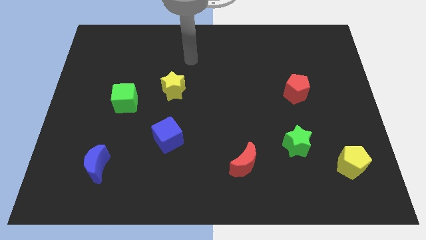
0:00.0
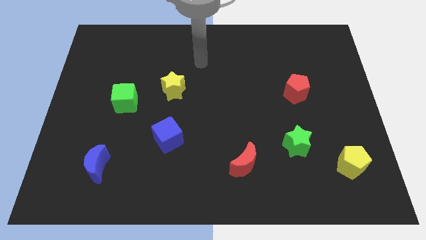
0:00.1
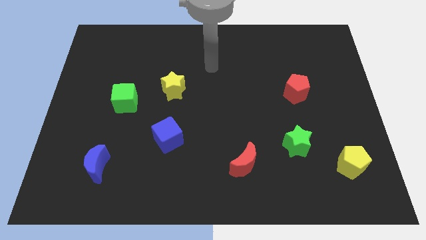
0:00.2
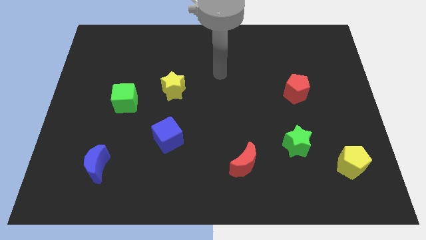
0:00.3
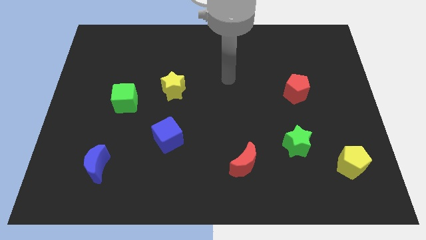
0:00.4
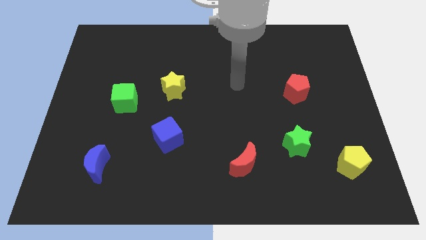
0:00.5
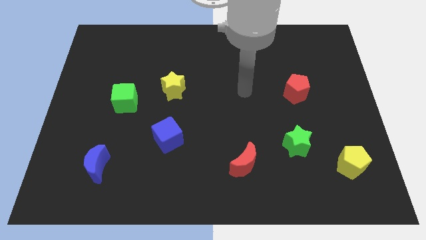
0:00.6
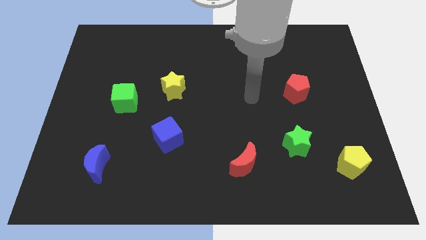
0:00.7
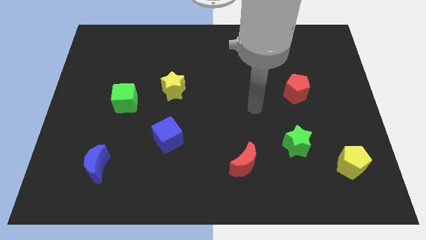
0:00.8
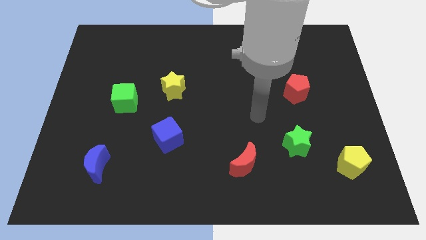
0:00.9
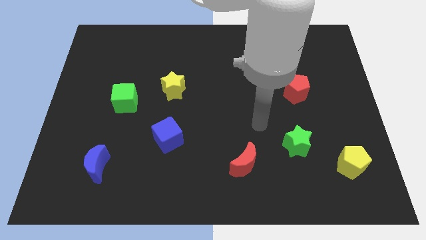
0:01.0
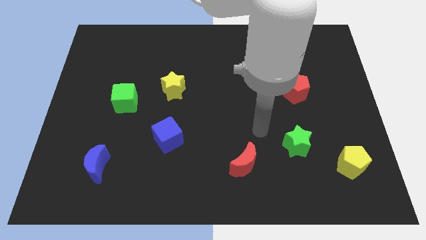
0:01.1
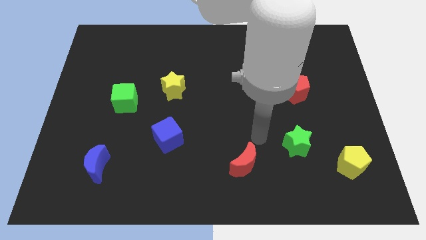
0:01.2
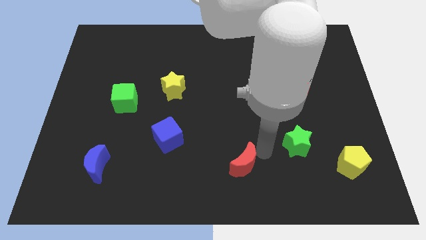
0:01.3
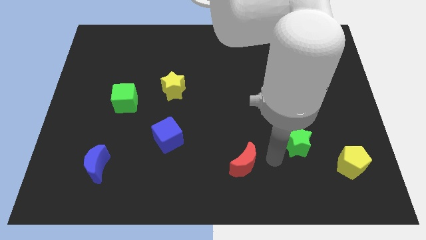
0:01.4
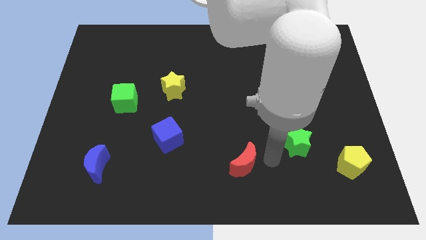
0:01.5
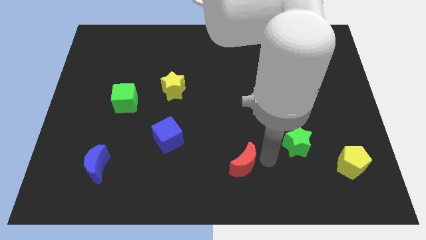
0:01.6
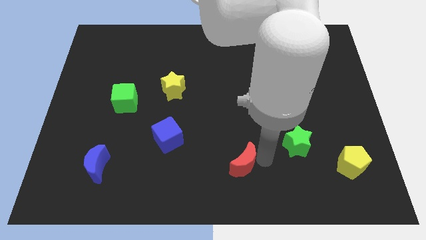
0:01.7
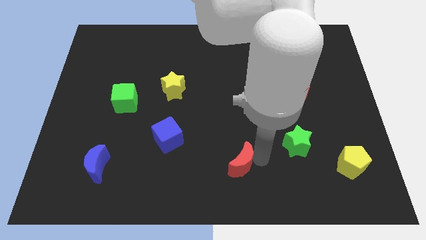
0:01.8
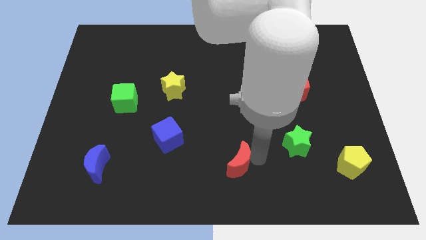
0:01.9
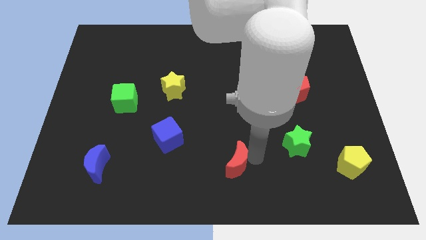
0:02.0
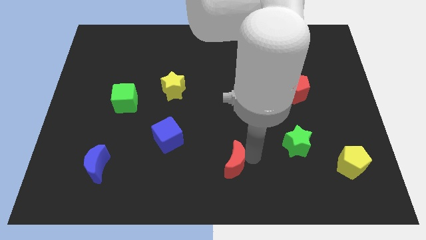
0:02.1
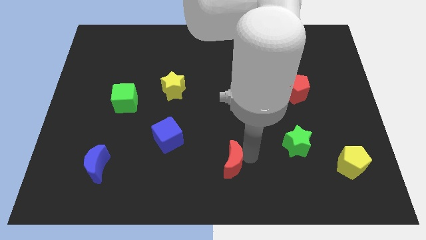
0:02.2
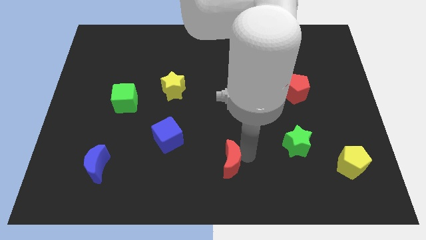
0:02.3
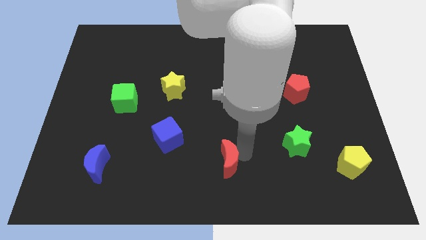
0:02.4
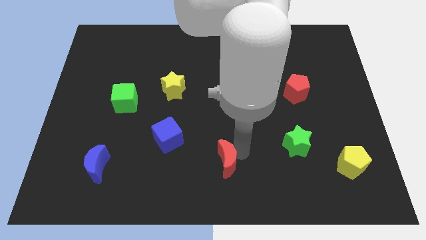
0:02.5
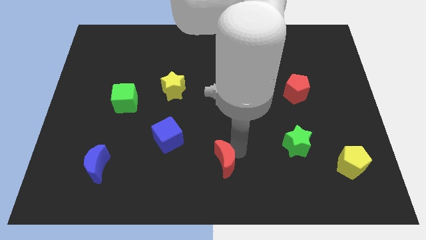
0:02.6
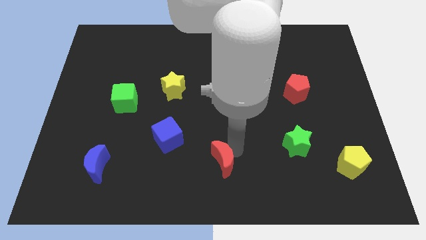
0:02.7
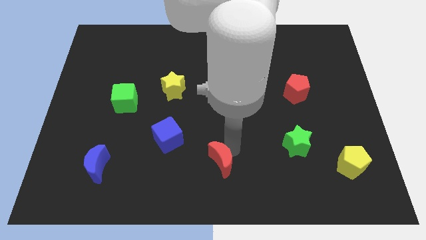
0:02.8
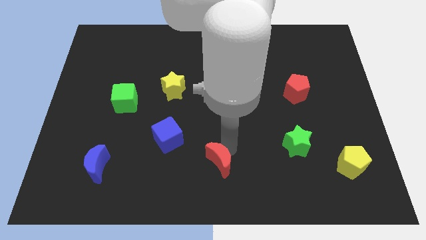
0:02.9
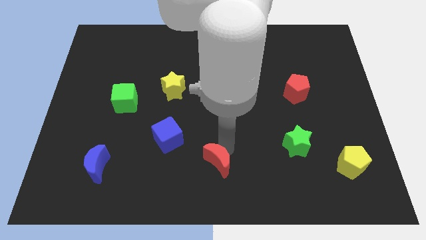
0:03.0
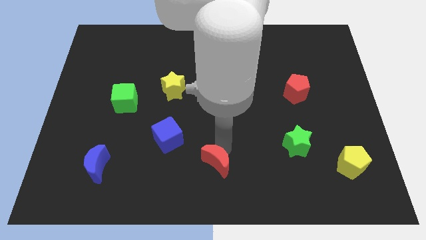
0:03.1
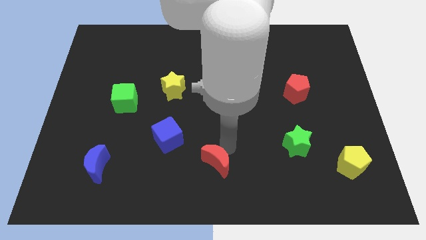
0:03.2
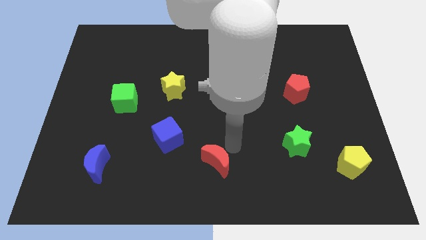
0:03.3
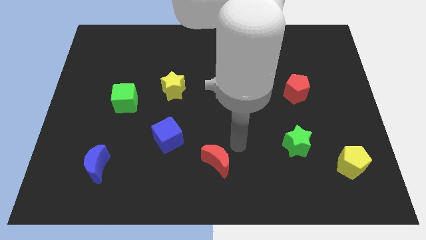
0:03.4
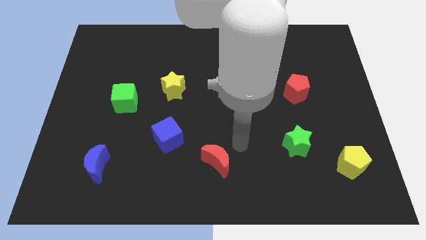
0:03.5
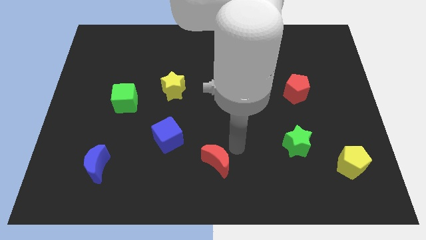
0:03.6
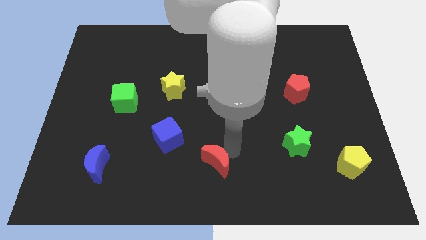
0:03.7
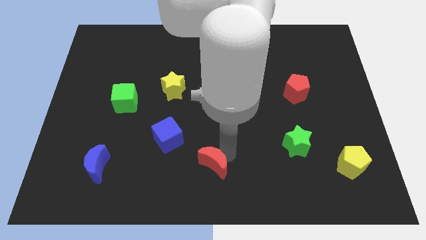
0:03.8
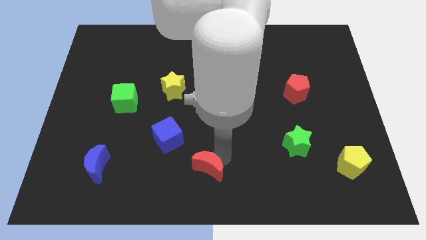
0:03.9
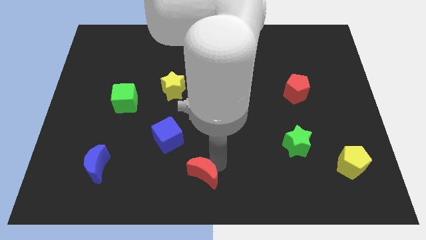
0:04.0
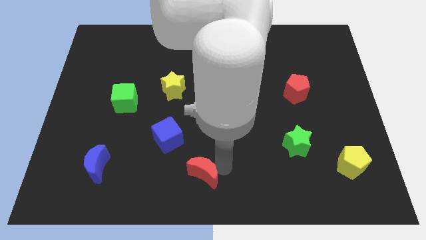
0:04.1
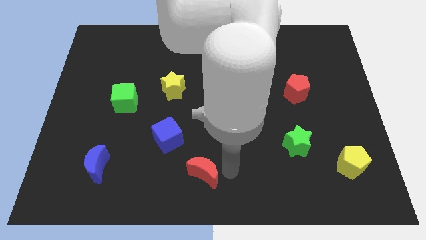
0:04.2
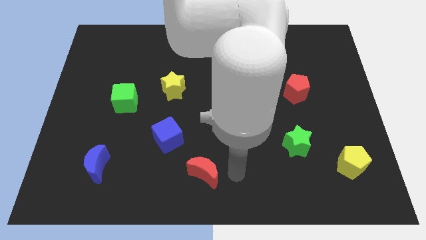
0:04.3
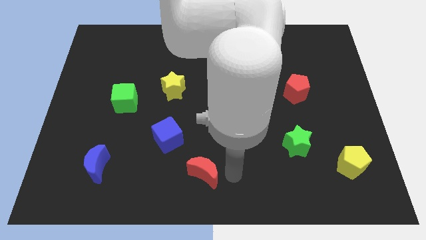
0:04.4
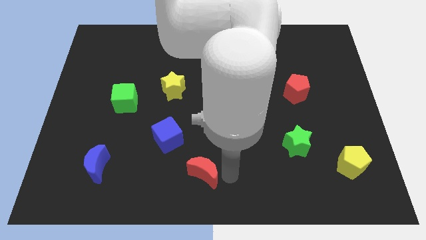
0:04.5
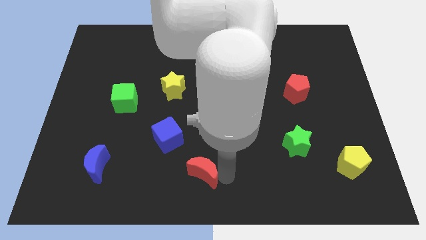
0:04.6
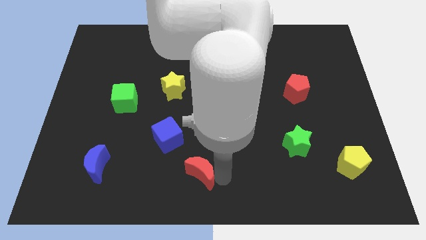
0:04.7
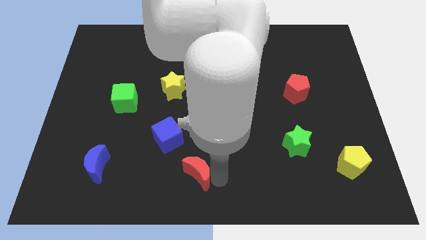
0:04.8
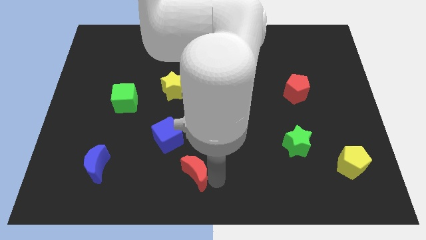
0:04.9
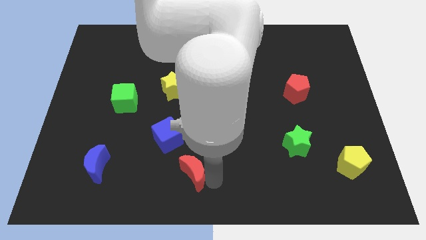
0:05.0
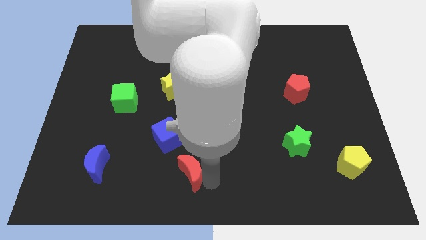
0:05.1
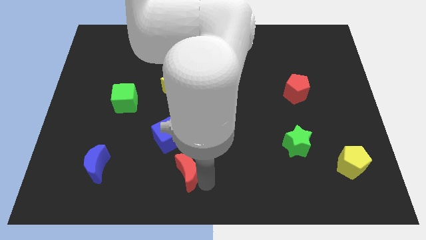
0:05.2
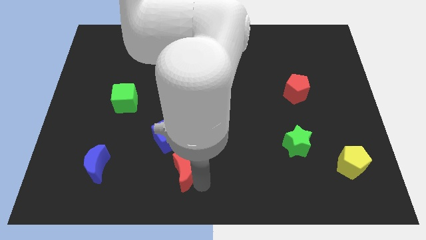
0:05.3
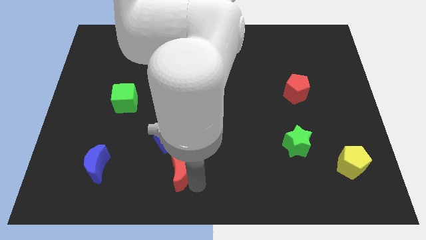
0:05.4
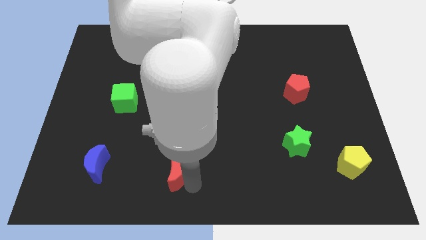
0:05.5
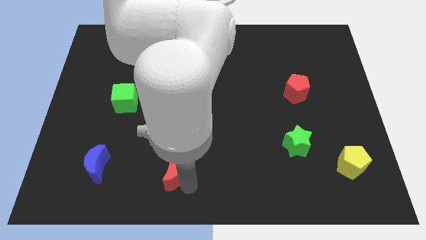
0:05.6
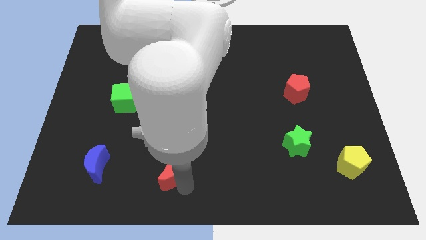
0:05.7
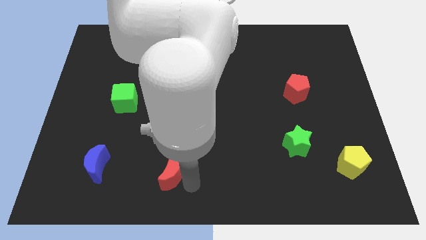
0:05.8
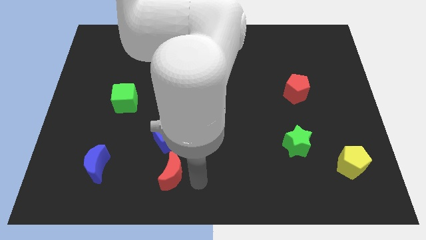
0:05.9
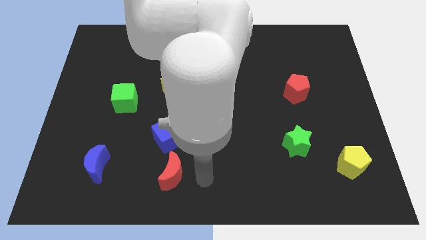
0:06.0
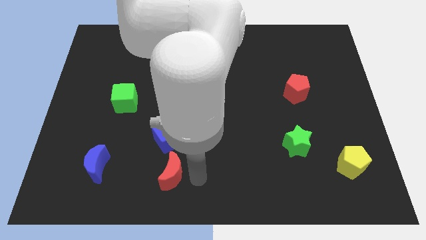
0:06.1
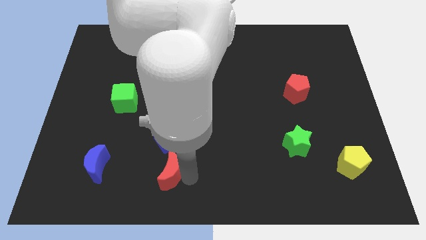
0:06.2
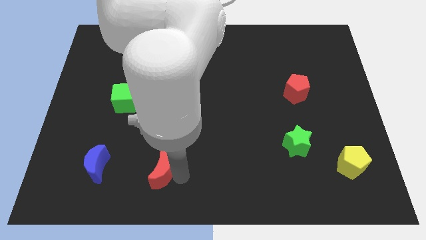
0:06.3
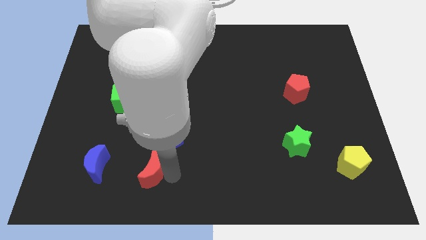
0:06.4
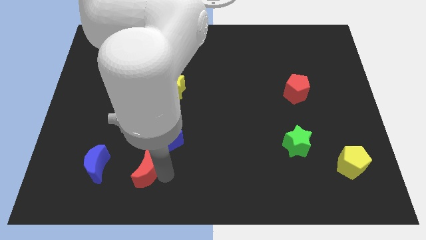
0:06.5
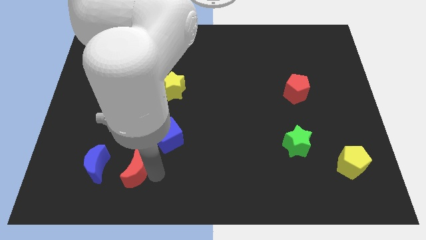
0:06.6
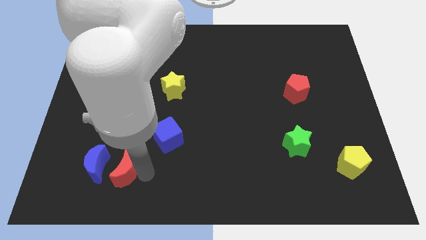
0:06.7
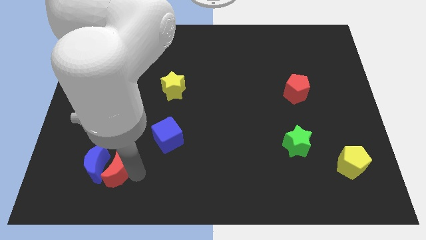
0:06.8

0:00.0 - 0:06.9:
move the red moon next to the blue moon
